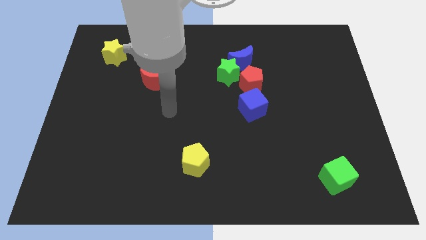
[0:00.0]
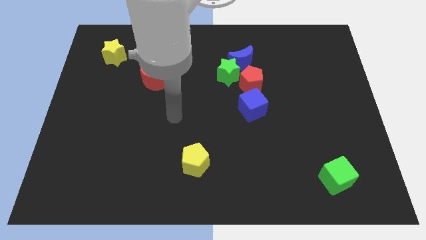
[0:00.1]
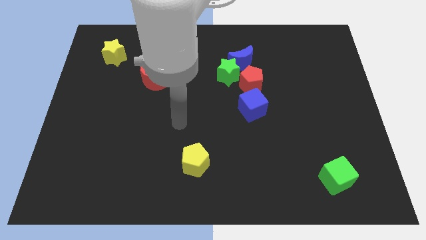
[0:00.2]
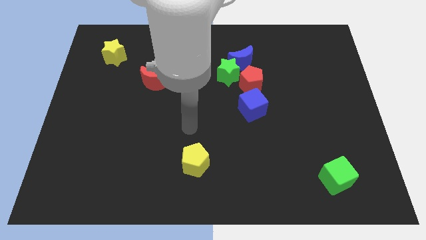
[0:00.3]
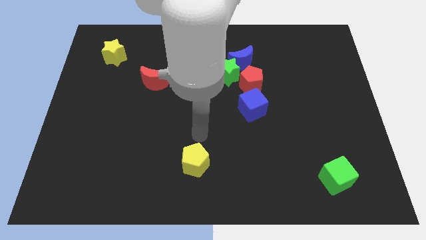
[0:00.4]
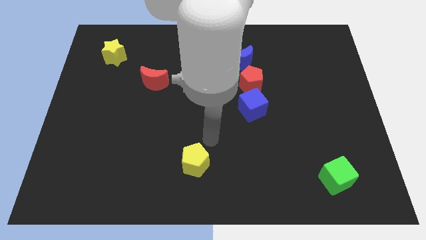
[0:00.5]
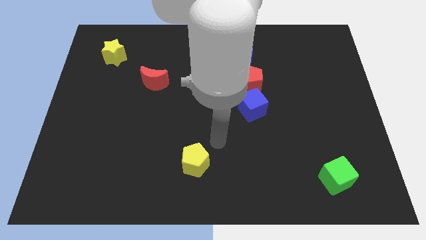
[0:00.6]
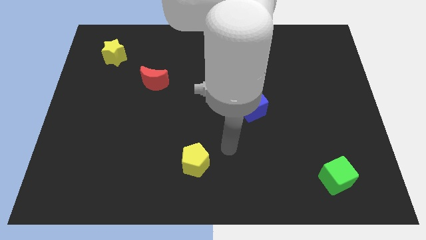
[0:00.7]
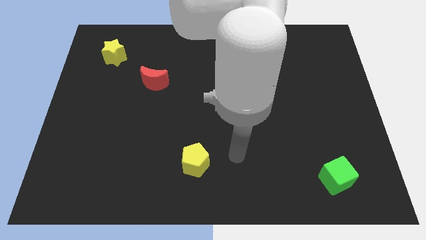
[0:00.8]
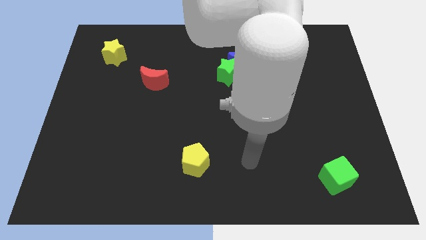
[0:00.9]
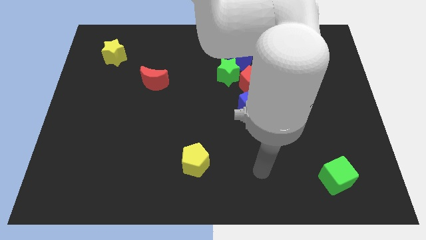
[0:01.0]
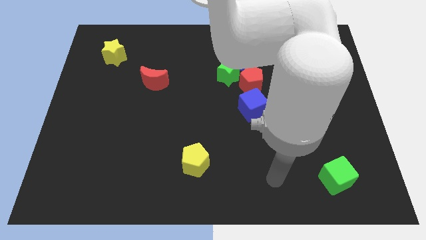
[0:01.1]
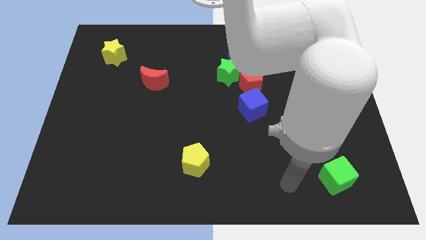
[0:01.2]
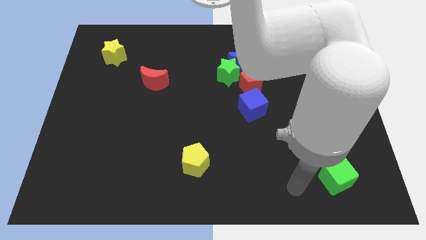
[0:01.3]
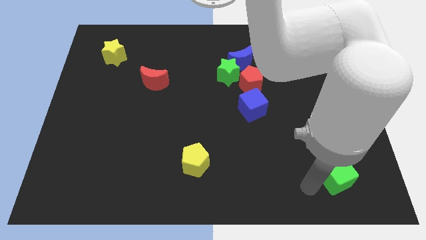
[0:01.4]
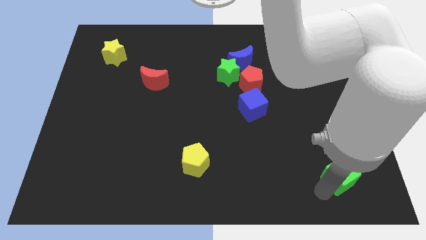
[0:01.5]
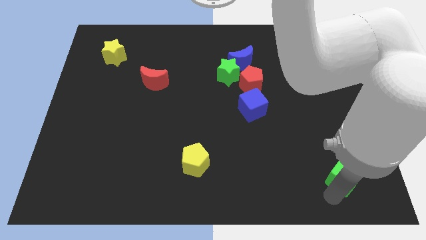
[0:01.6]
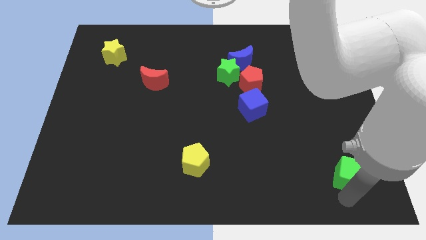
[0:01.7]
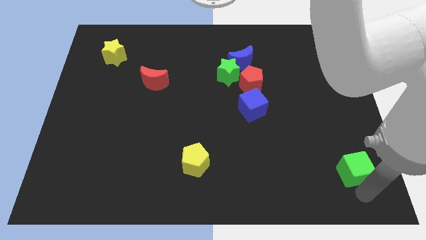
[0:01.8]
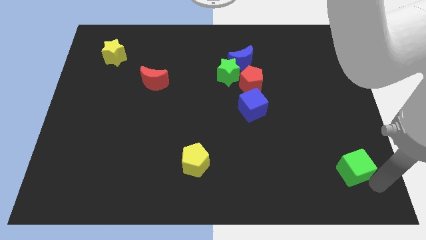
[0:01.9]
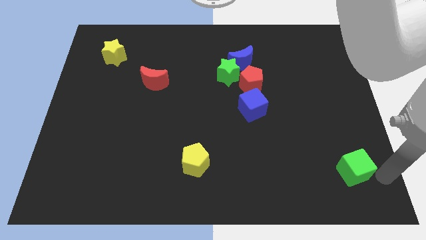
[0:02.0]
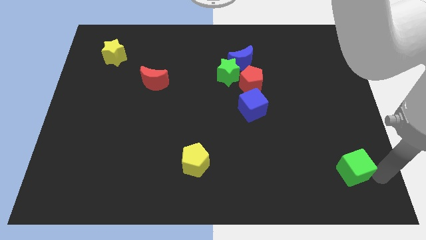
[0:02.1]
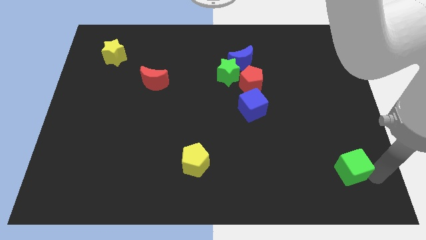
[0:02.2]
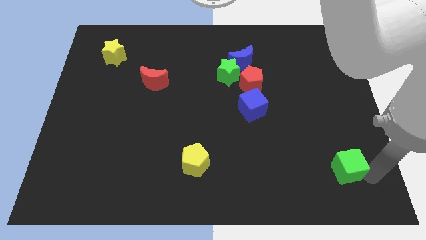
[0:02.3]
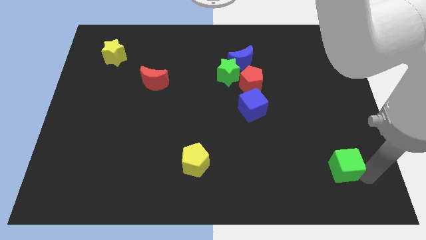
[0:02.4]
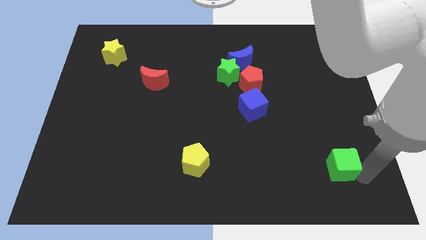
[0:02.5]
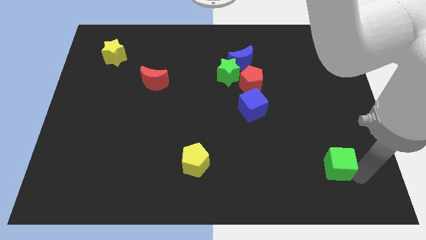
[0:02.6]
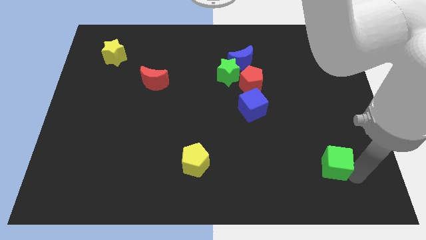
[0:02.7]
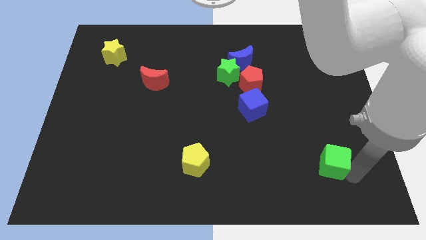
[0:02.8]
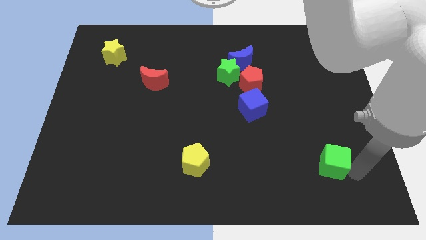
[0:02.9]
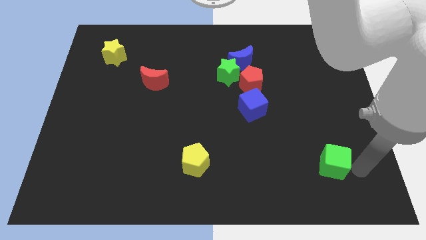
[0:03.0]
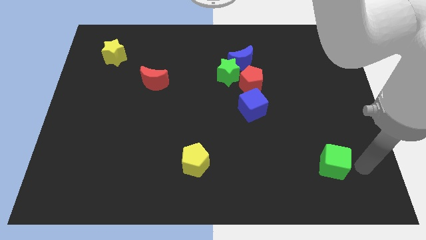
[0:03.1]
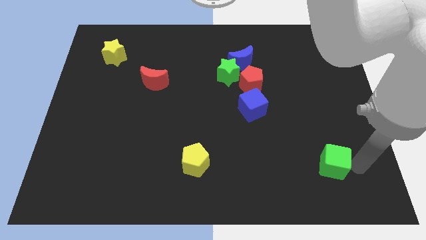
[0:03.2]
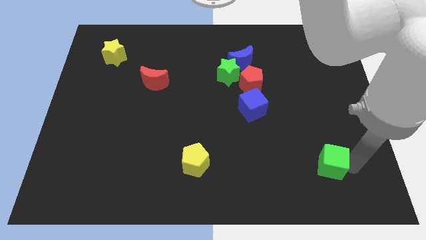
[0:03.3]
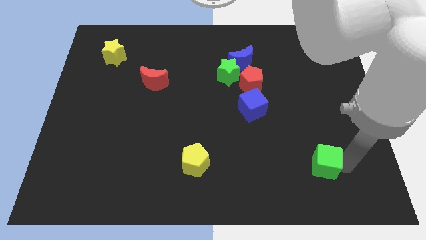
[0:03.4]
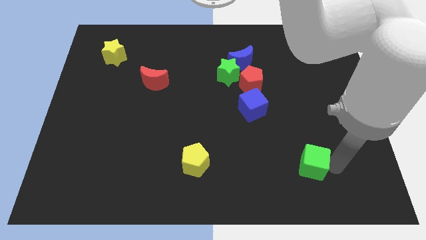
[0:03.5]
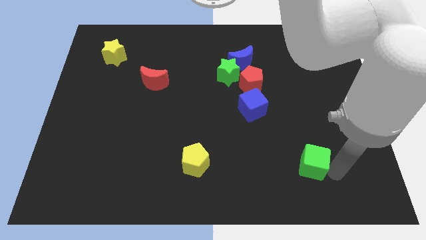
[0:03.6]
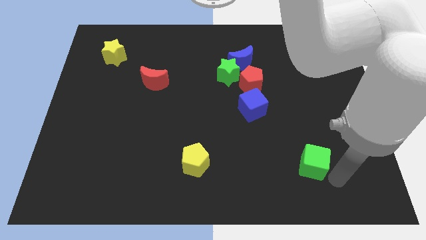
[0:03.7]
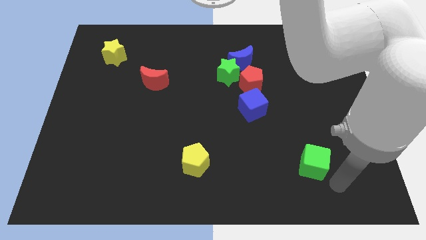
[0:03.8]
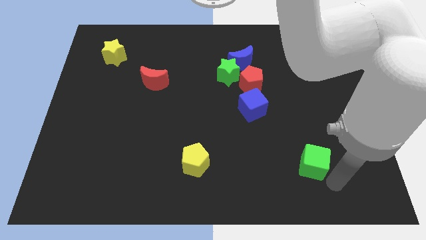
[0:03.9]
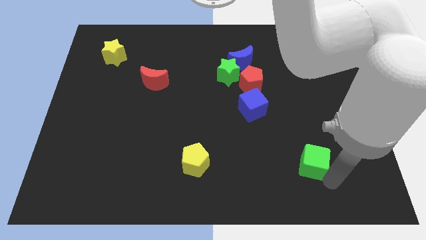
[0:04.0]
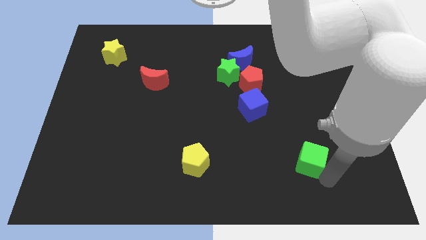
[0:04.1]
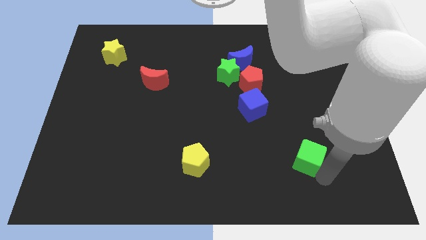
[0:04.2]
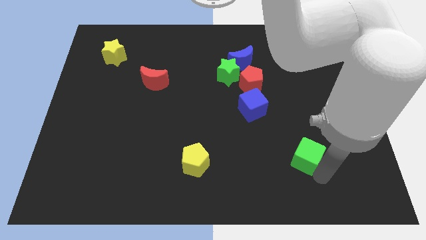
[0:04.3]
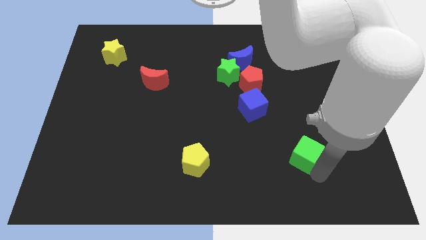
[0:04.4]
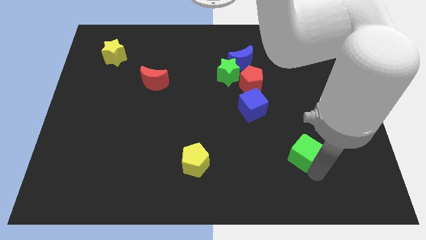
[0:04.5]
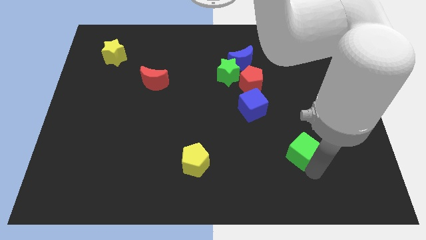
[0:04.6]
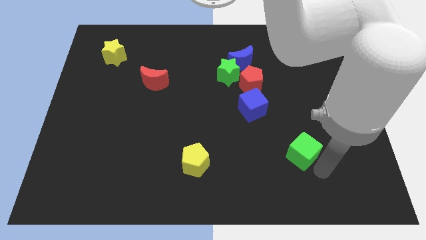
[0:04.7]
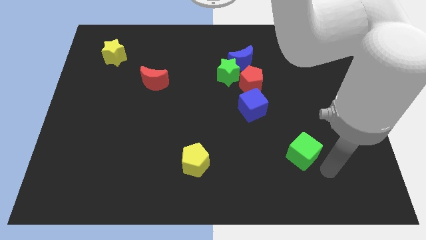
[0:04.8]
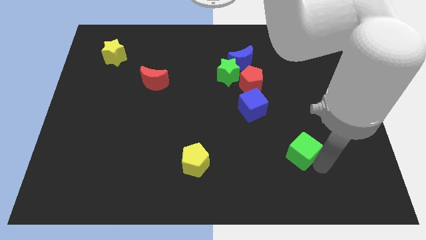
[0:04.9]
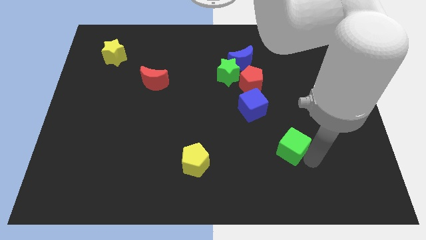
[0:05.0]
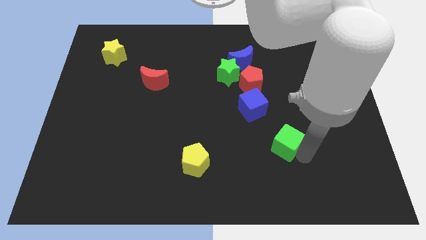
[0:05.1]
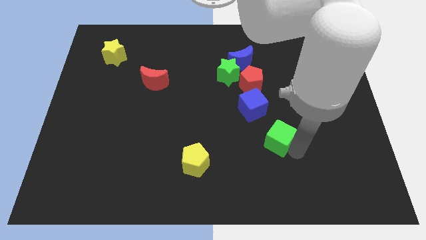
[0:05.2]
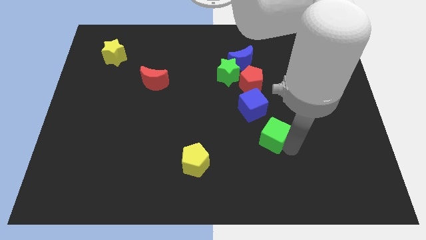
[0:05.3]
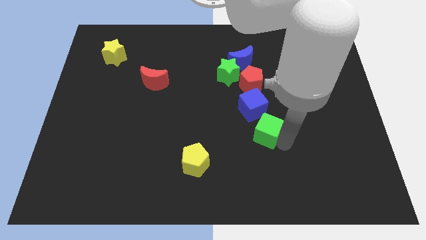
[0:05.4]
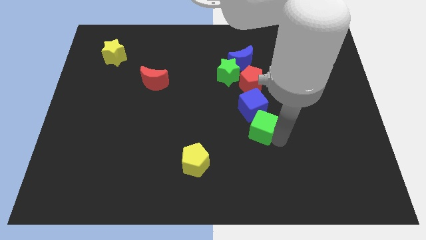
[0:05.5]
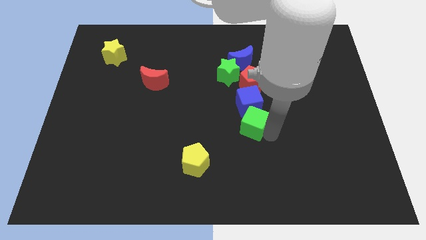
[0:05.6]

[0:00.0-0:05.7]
slide the green cube to the middle
